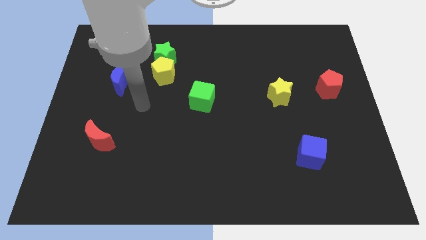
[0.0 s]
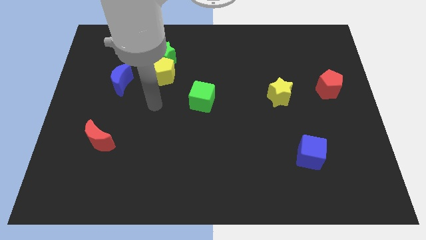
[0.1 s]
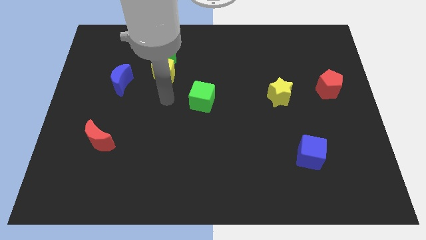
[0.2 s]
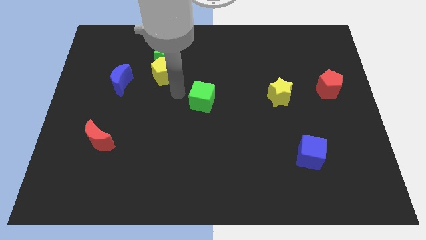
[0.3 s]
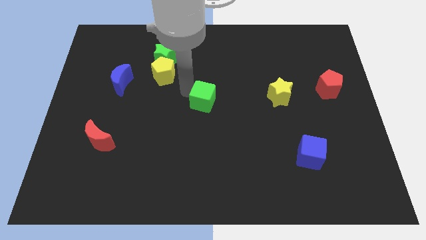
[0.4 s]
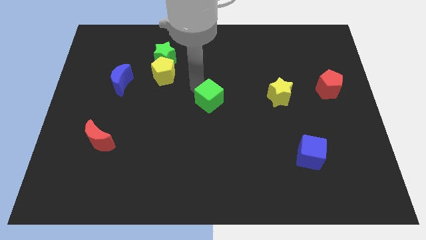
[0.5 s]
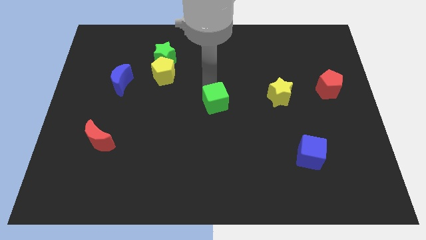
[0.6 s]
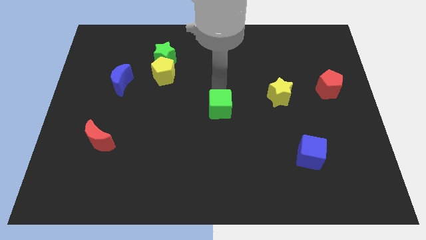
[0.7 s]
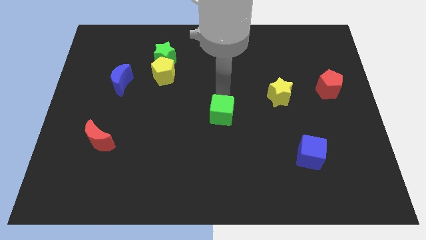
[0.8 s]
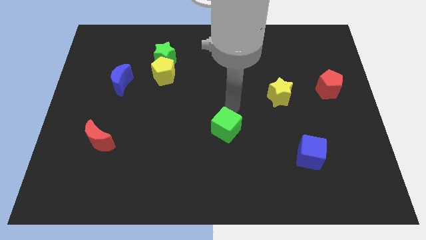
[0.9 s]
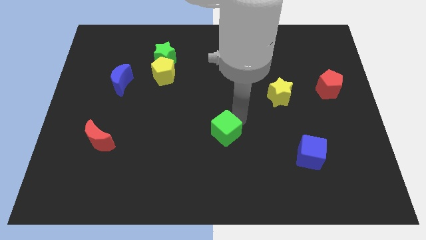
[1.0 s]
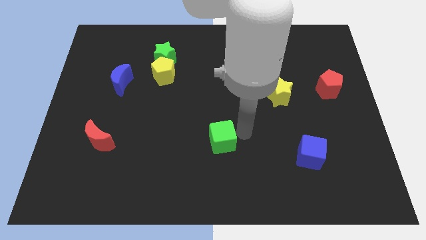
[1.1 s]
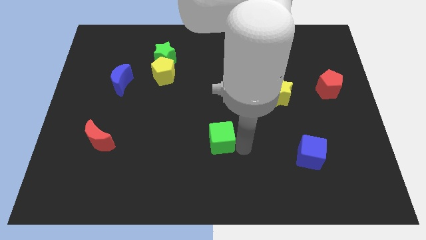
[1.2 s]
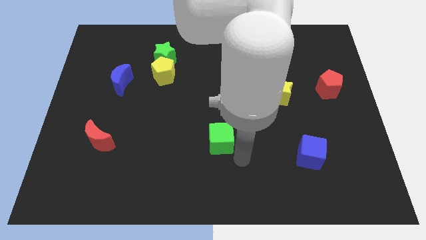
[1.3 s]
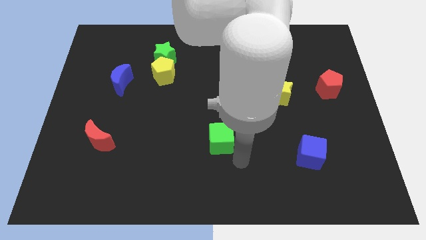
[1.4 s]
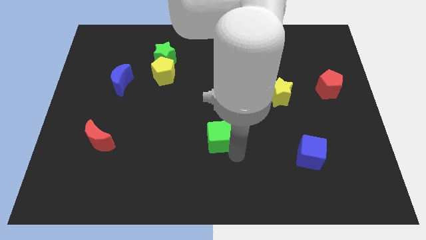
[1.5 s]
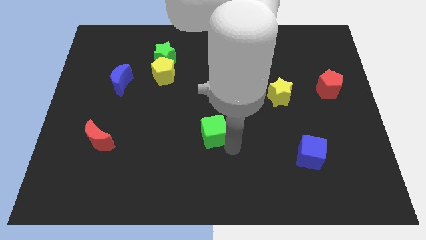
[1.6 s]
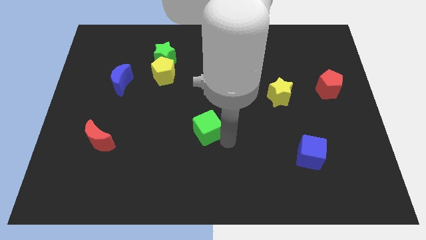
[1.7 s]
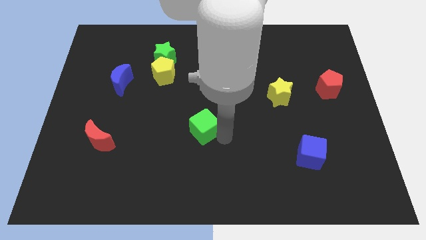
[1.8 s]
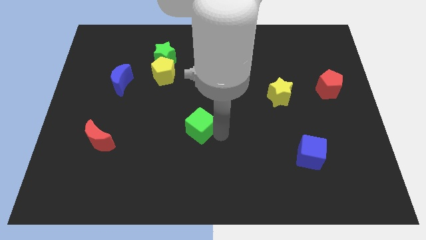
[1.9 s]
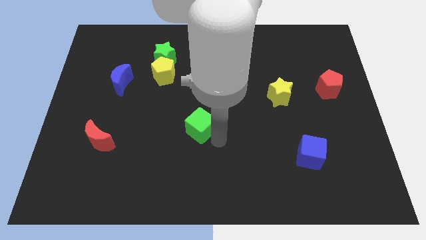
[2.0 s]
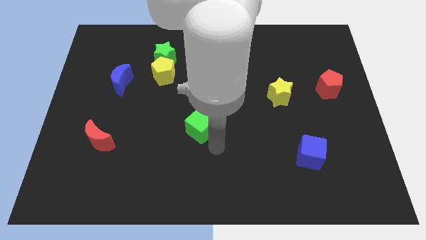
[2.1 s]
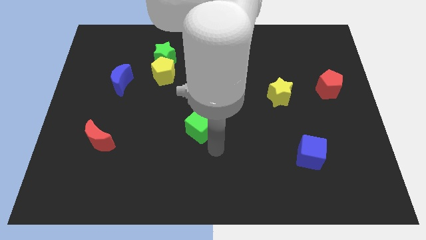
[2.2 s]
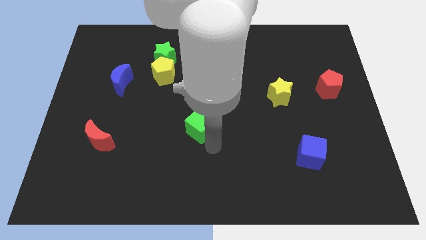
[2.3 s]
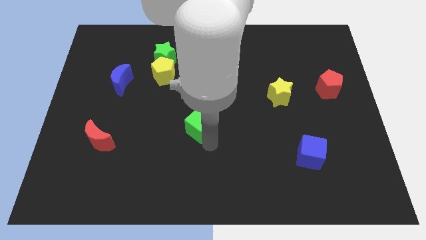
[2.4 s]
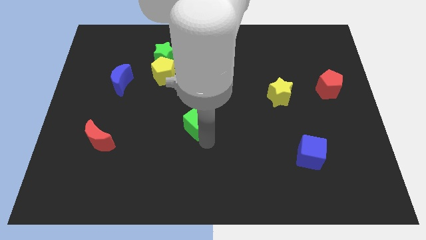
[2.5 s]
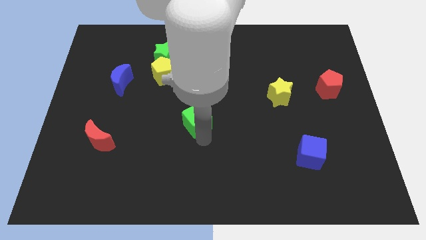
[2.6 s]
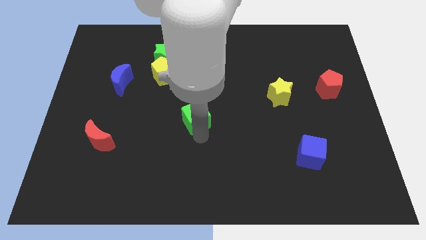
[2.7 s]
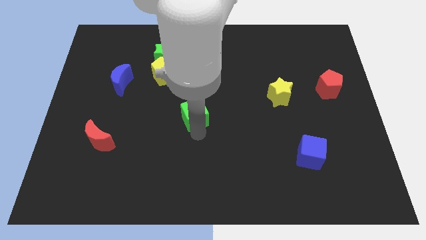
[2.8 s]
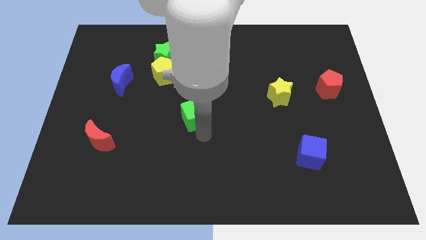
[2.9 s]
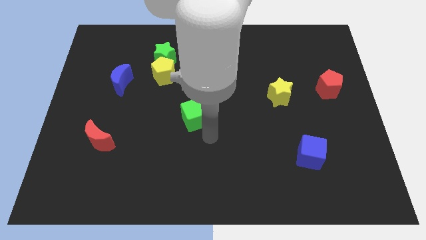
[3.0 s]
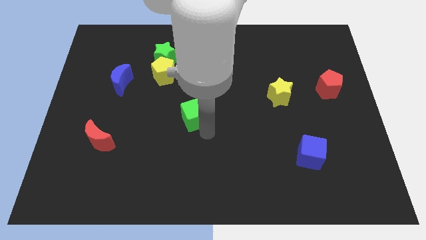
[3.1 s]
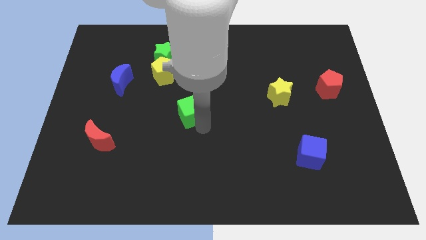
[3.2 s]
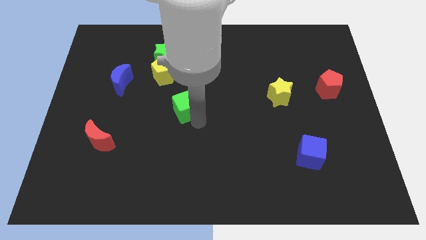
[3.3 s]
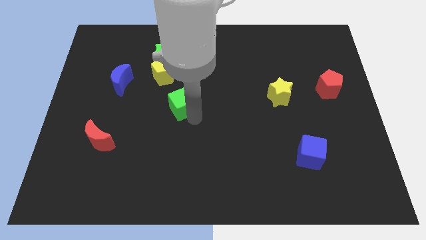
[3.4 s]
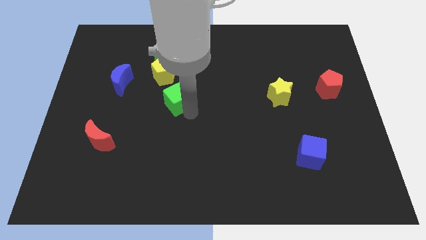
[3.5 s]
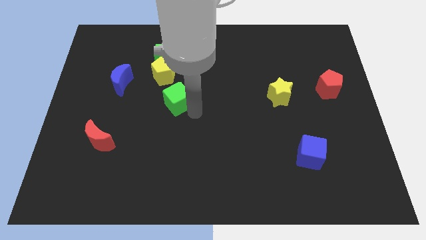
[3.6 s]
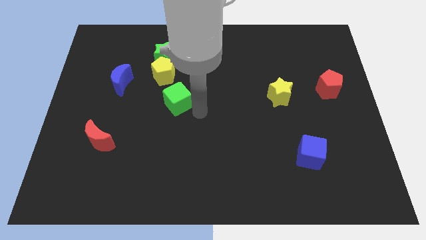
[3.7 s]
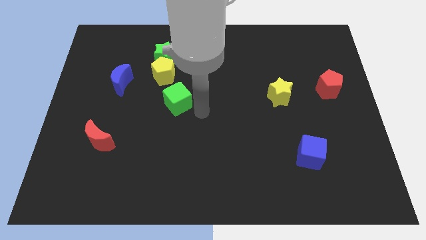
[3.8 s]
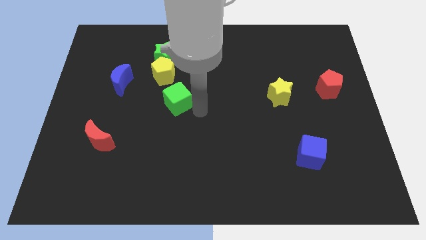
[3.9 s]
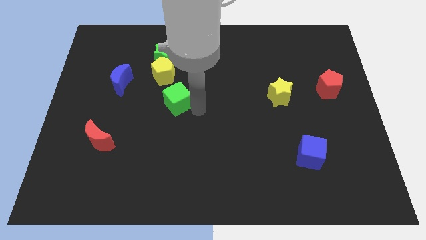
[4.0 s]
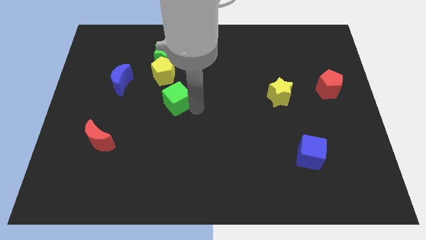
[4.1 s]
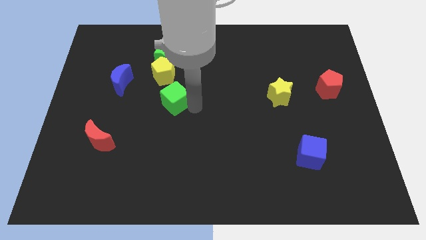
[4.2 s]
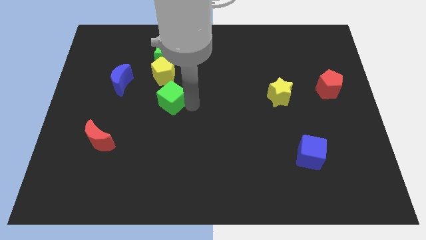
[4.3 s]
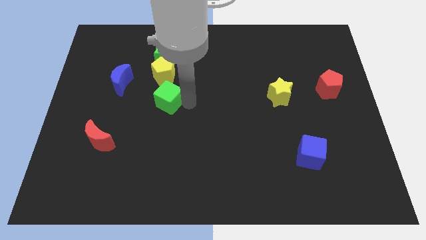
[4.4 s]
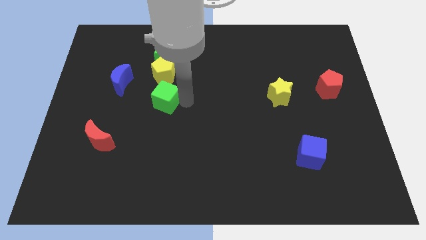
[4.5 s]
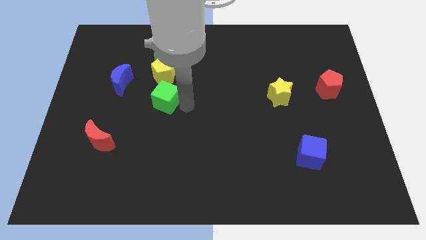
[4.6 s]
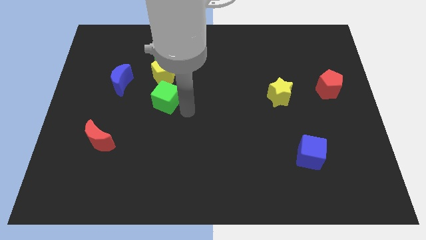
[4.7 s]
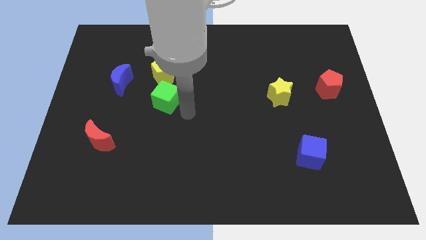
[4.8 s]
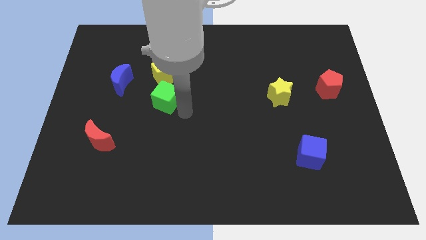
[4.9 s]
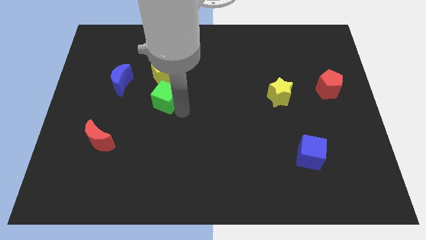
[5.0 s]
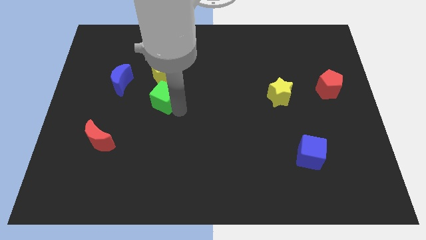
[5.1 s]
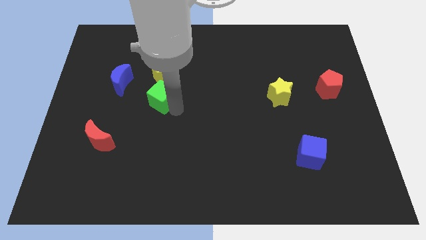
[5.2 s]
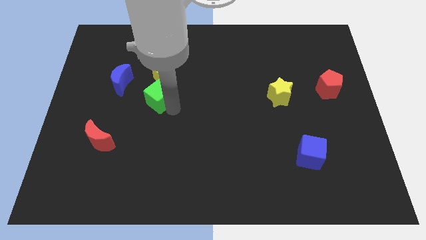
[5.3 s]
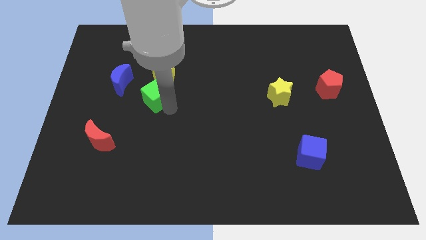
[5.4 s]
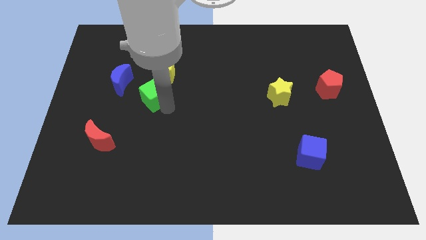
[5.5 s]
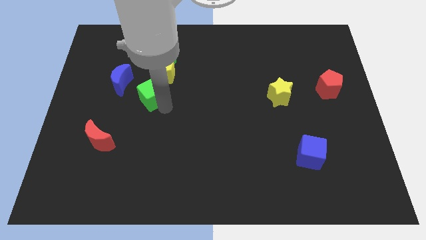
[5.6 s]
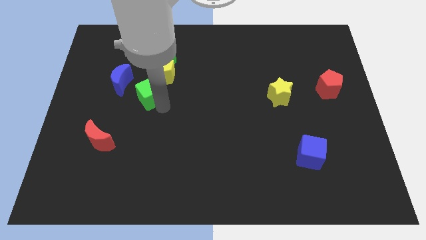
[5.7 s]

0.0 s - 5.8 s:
move the green cube up and then to the left somewhat

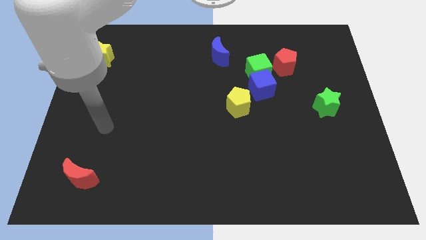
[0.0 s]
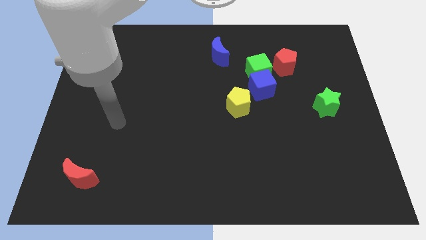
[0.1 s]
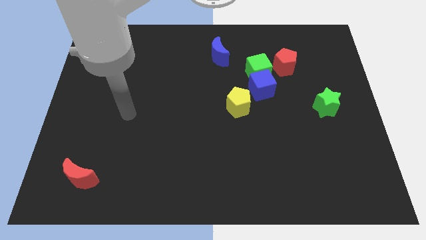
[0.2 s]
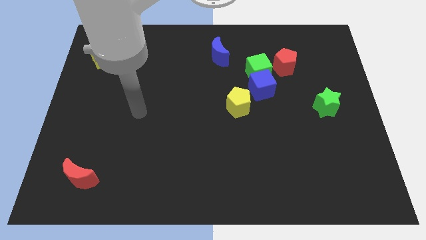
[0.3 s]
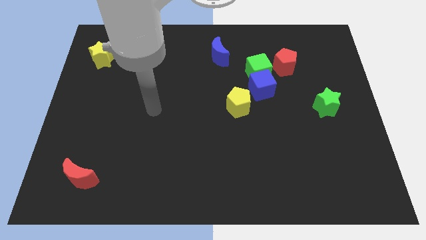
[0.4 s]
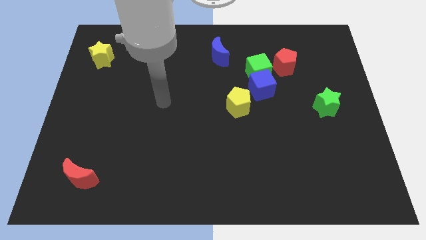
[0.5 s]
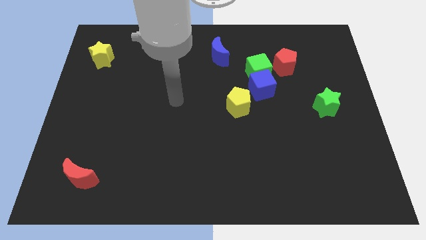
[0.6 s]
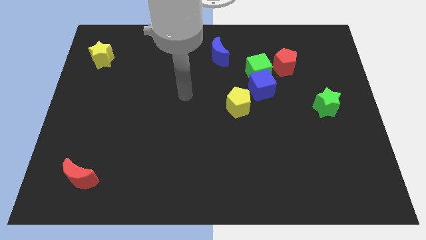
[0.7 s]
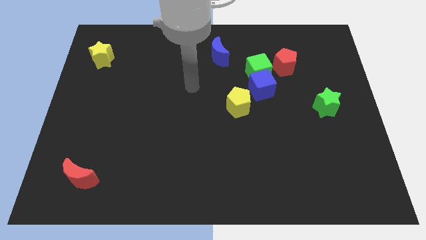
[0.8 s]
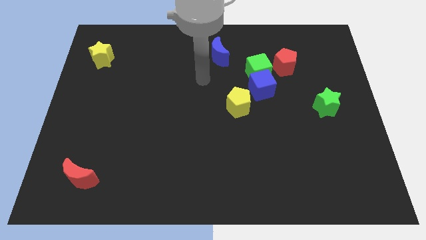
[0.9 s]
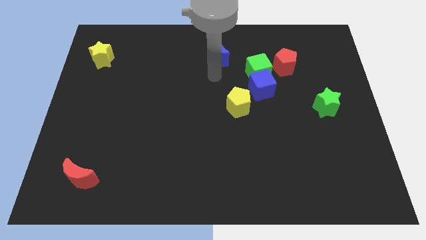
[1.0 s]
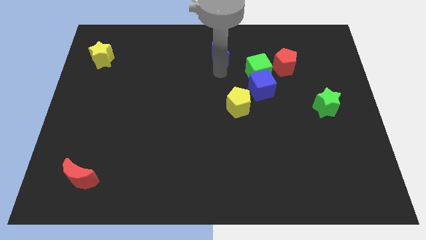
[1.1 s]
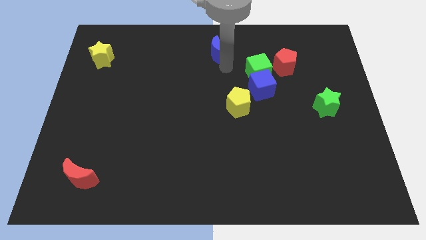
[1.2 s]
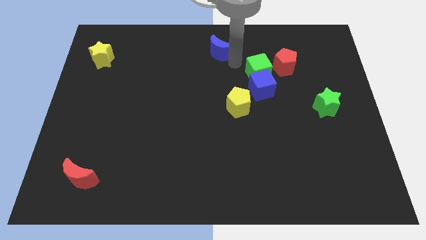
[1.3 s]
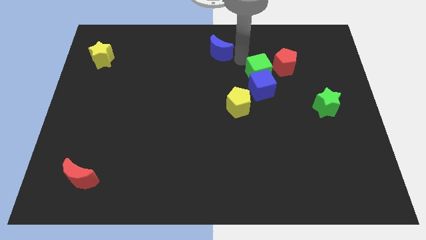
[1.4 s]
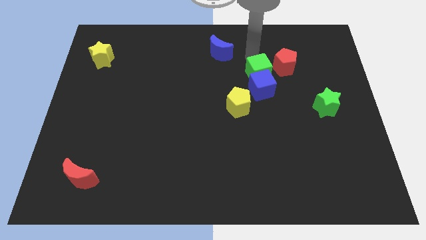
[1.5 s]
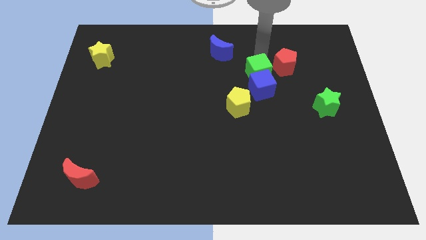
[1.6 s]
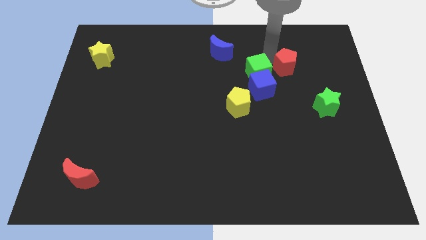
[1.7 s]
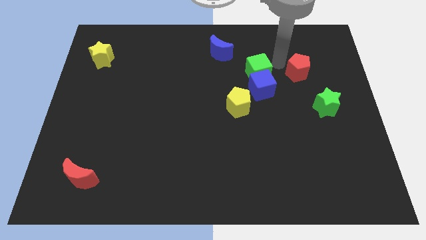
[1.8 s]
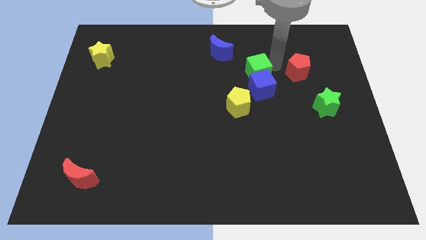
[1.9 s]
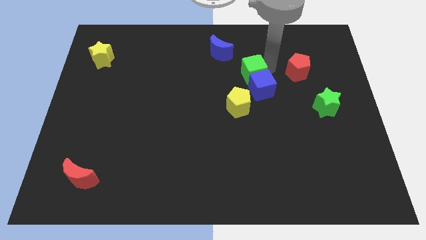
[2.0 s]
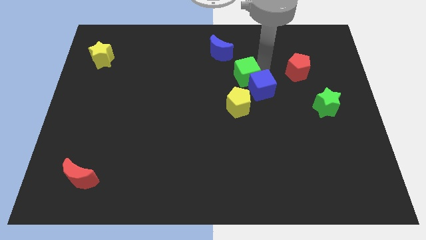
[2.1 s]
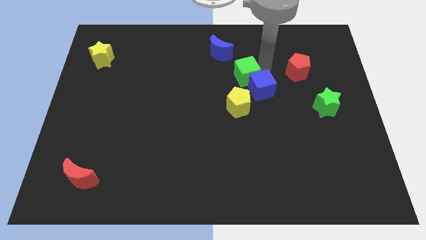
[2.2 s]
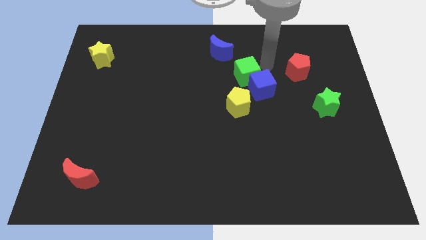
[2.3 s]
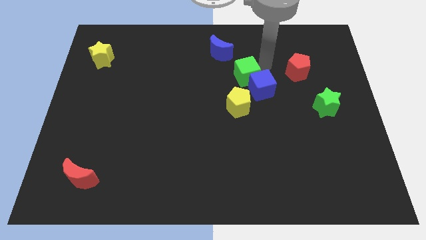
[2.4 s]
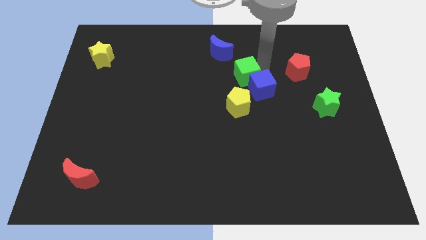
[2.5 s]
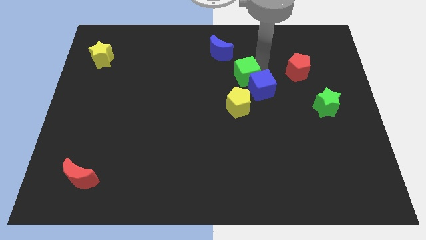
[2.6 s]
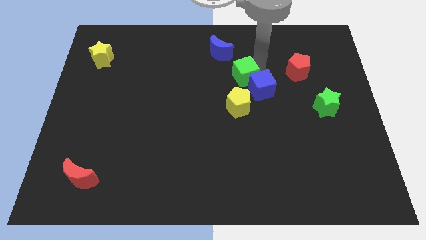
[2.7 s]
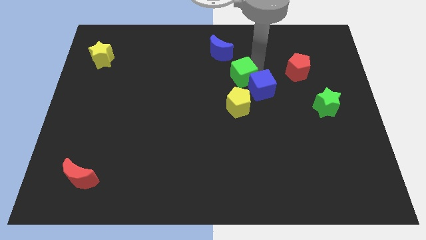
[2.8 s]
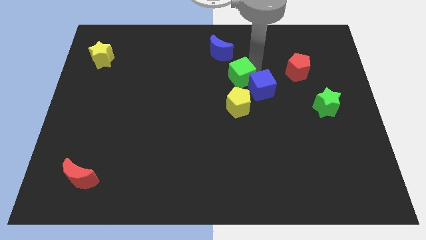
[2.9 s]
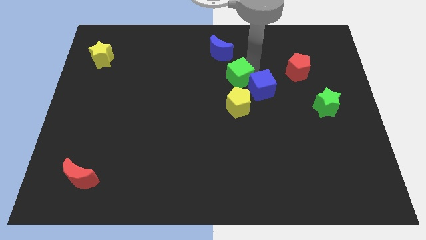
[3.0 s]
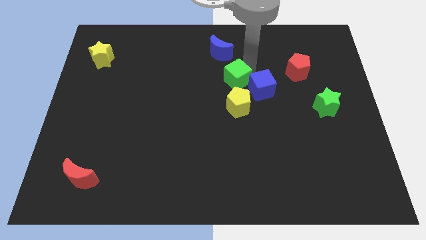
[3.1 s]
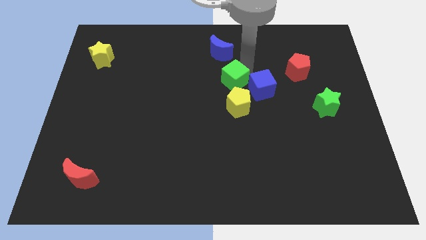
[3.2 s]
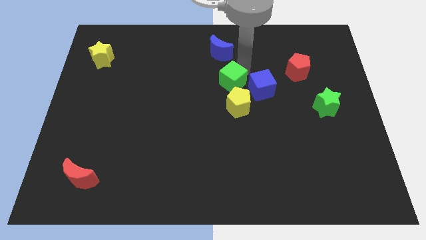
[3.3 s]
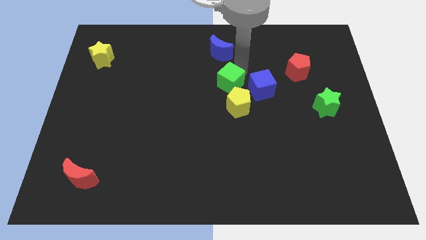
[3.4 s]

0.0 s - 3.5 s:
slightly move the green cube down and to the left
